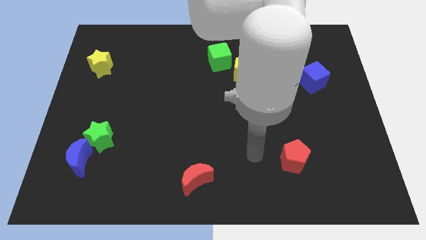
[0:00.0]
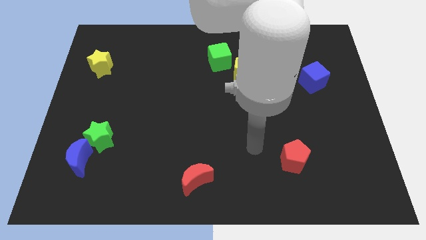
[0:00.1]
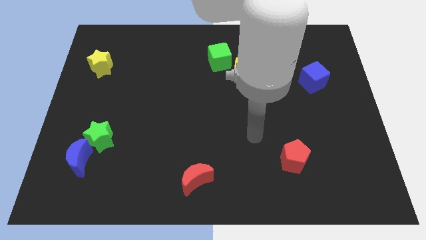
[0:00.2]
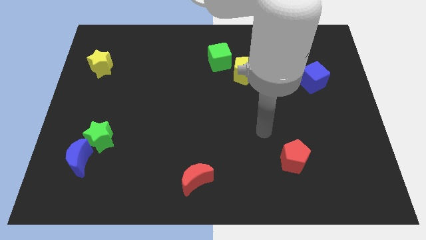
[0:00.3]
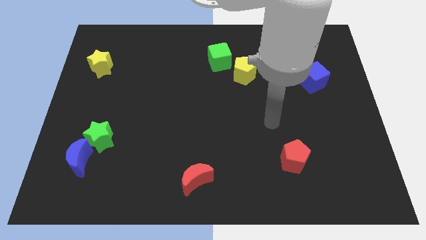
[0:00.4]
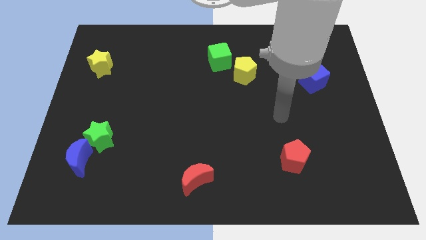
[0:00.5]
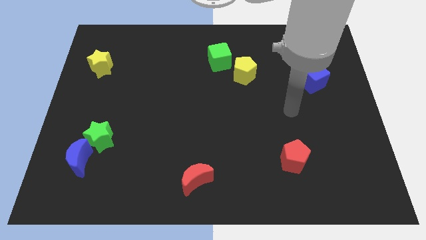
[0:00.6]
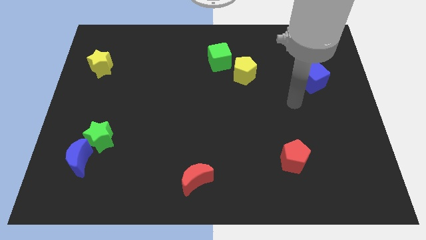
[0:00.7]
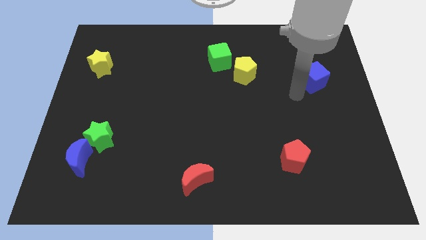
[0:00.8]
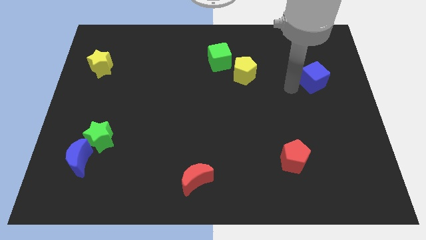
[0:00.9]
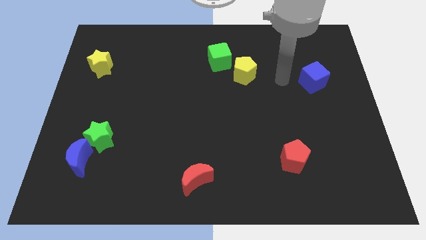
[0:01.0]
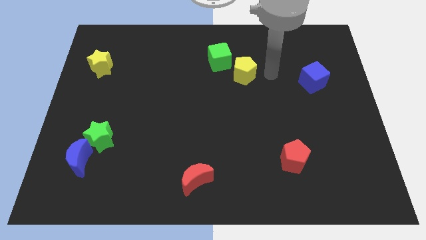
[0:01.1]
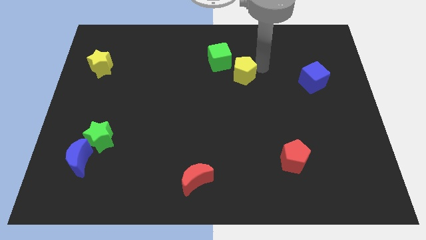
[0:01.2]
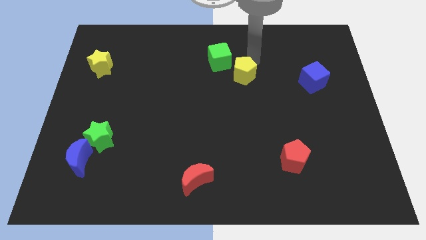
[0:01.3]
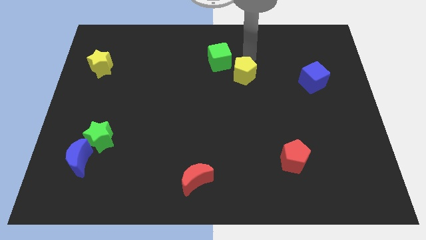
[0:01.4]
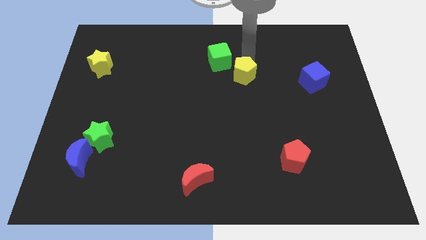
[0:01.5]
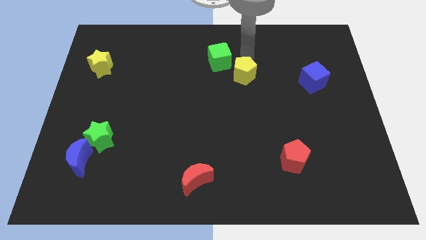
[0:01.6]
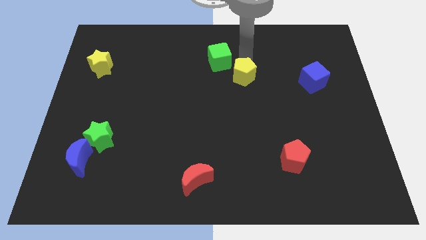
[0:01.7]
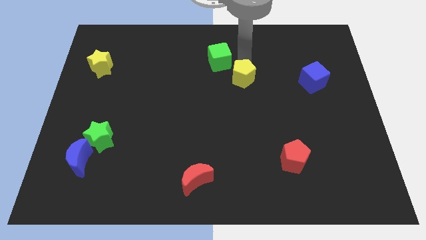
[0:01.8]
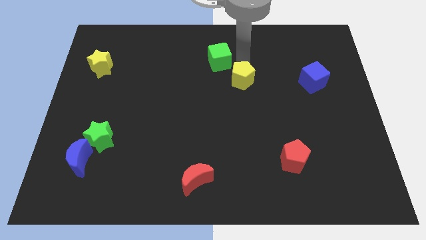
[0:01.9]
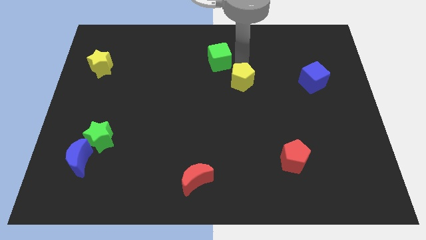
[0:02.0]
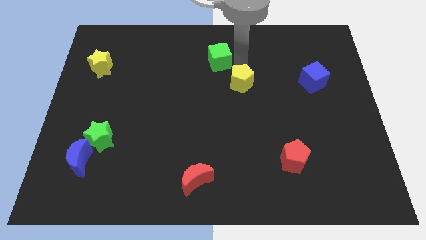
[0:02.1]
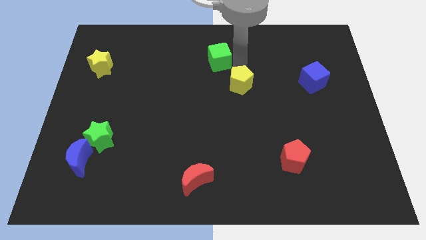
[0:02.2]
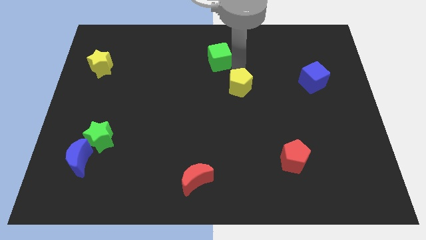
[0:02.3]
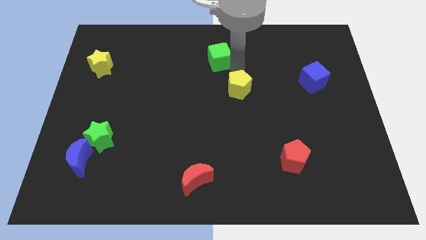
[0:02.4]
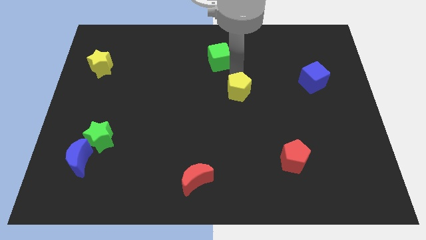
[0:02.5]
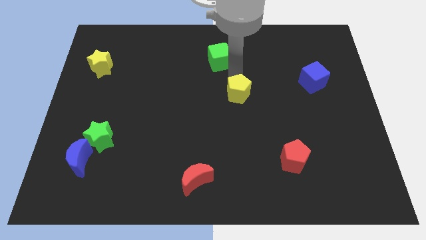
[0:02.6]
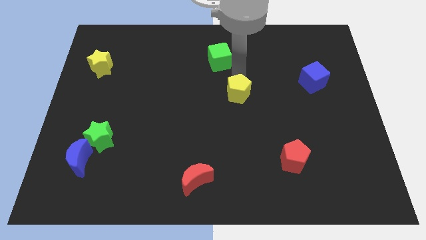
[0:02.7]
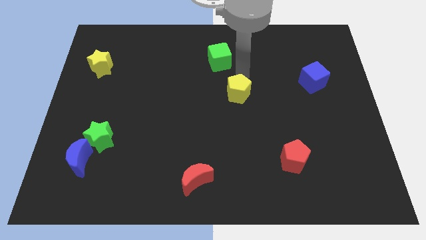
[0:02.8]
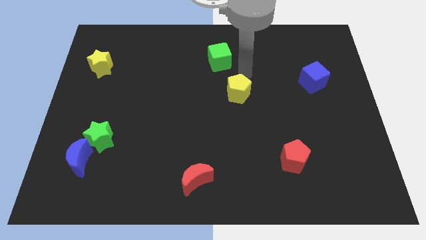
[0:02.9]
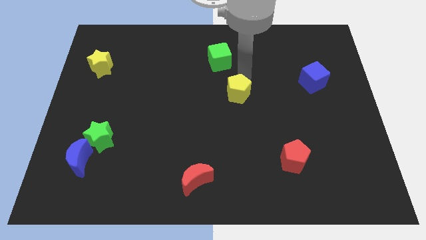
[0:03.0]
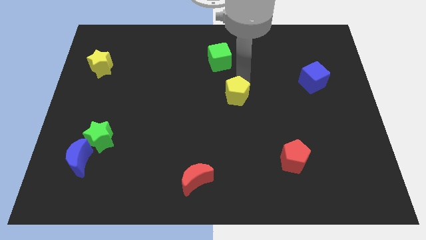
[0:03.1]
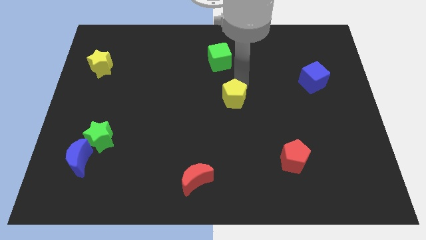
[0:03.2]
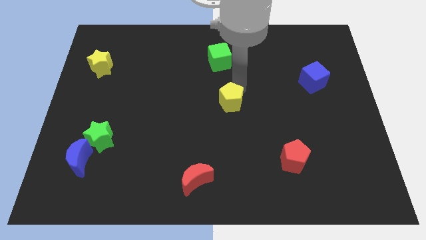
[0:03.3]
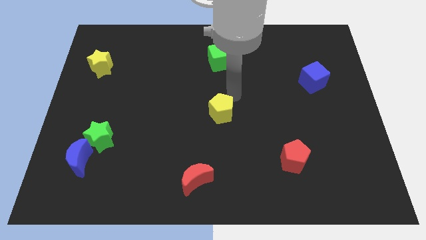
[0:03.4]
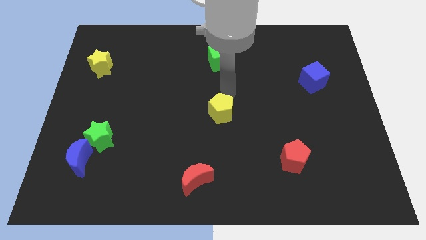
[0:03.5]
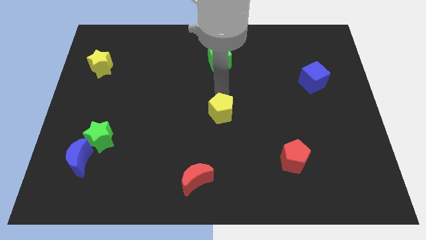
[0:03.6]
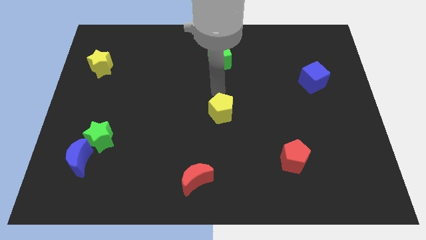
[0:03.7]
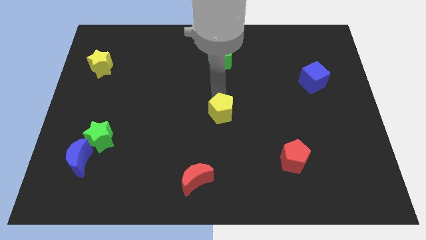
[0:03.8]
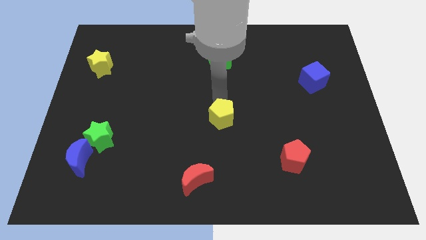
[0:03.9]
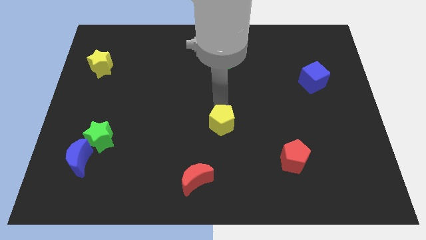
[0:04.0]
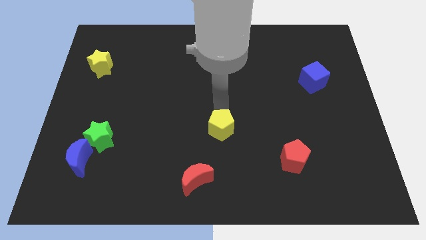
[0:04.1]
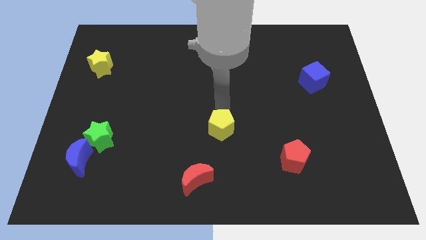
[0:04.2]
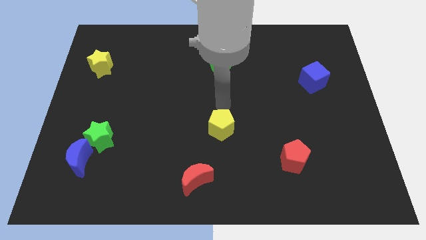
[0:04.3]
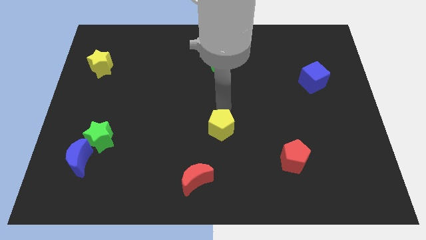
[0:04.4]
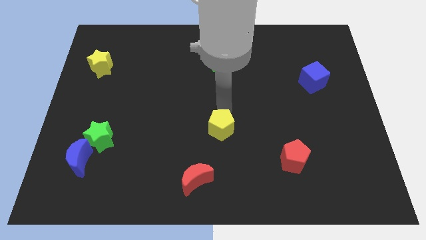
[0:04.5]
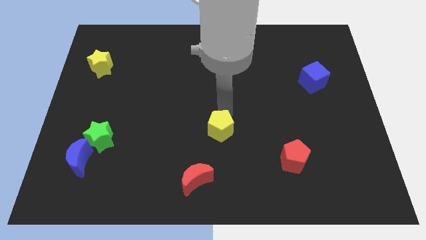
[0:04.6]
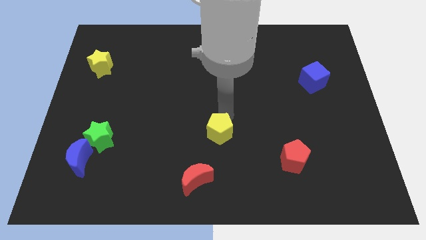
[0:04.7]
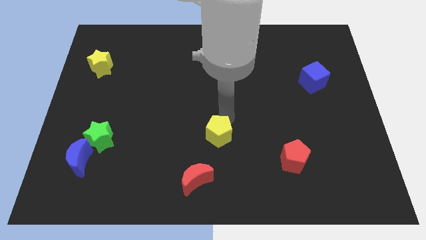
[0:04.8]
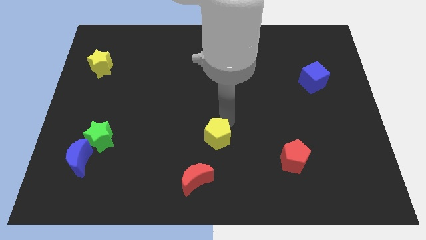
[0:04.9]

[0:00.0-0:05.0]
slide the yellow pentagon diagonally up and to the right of the red moon

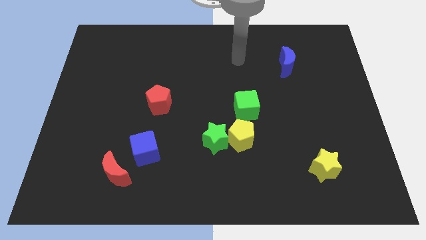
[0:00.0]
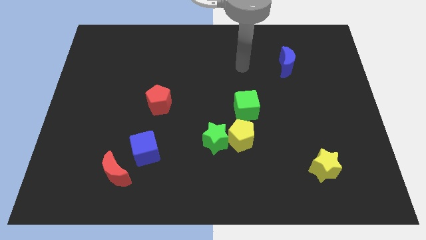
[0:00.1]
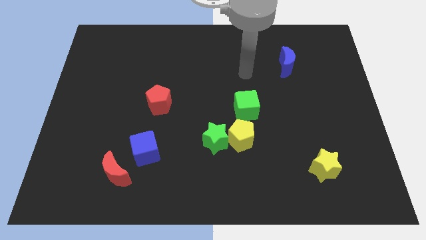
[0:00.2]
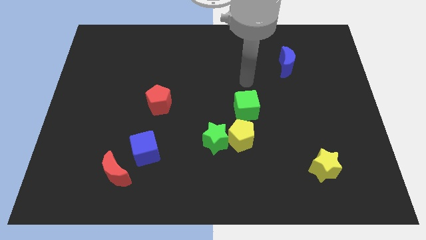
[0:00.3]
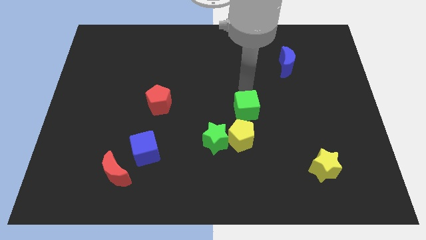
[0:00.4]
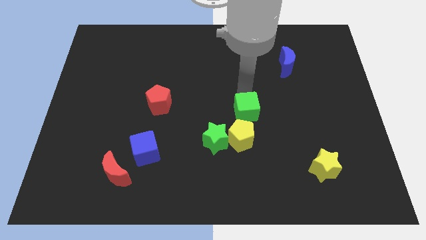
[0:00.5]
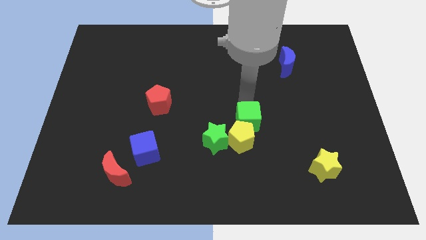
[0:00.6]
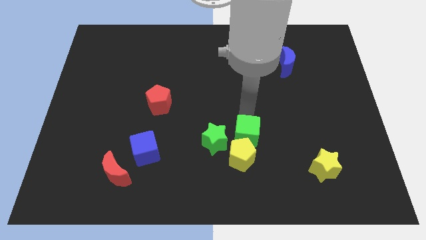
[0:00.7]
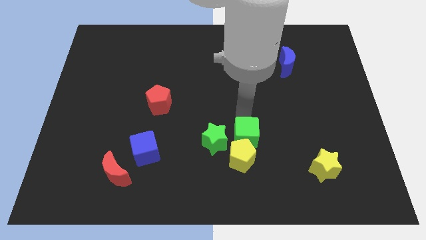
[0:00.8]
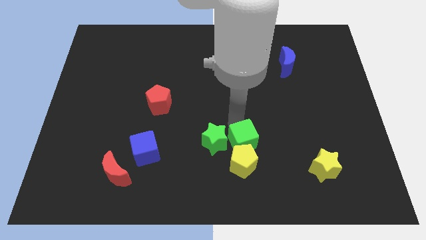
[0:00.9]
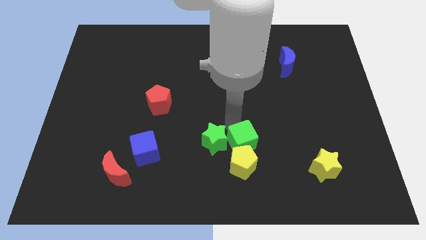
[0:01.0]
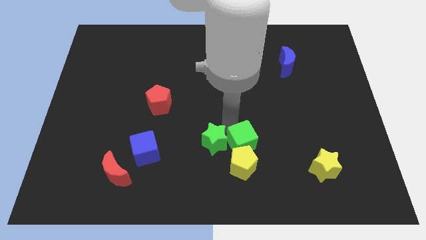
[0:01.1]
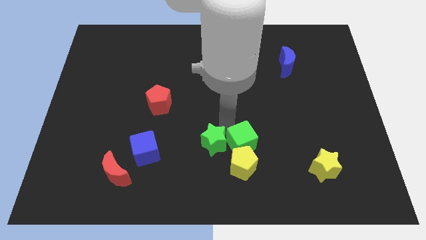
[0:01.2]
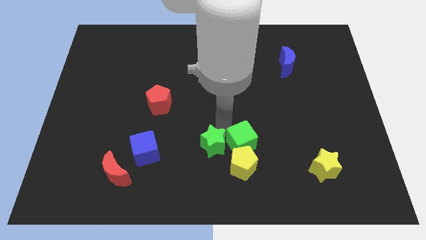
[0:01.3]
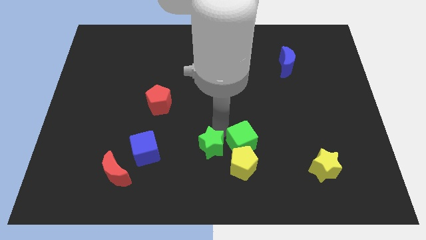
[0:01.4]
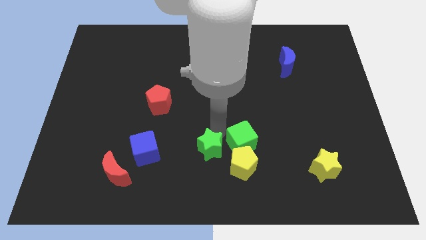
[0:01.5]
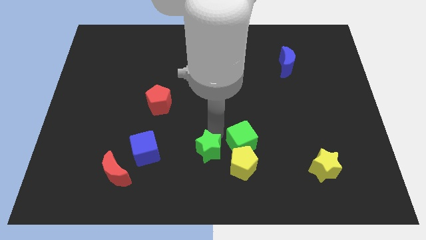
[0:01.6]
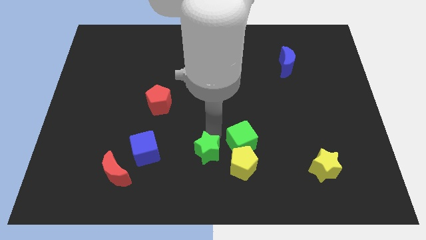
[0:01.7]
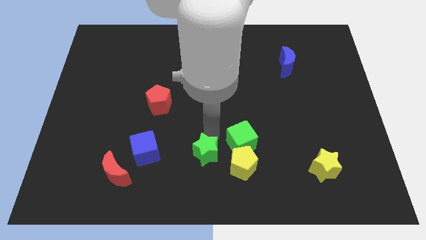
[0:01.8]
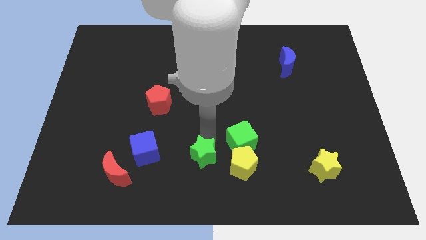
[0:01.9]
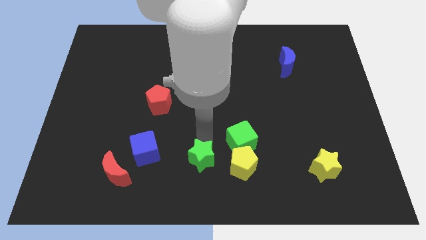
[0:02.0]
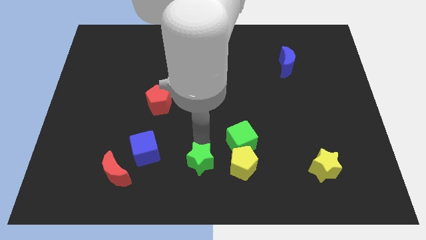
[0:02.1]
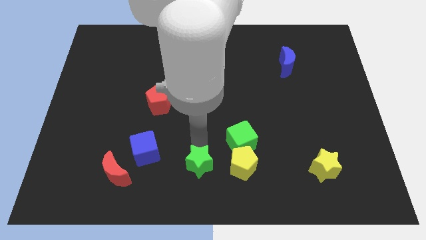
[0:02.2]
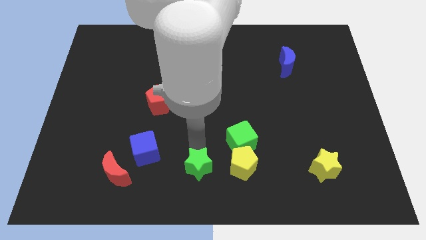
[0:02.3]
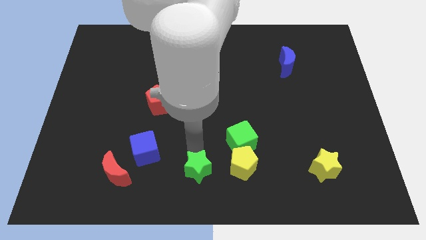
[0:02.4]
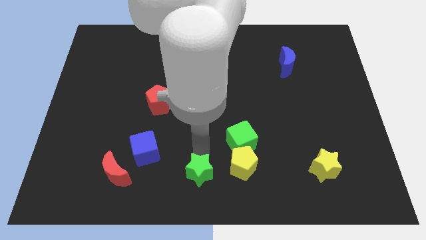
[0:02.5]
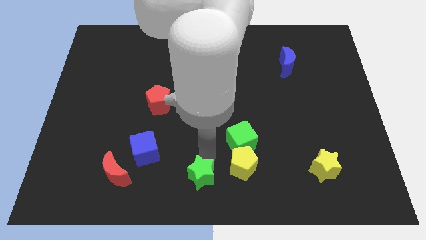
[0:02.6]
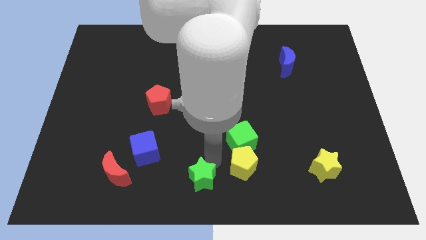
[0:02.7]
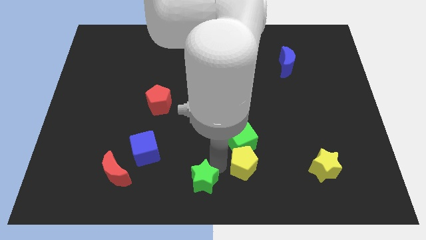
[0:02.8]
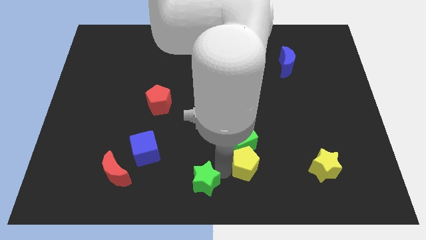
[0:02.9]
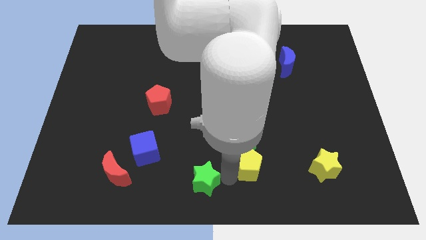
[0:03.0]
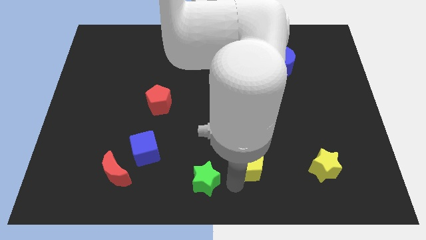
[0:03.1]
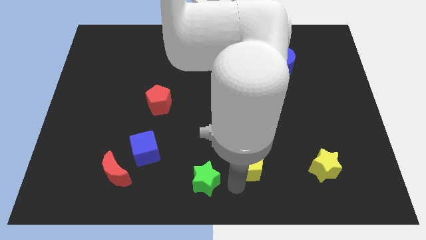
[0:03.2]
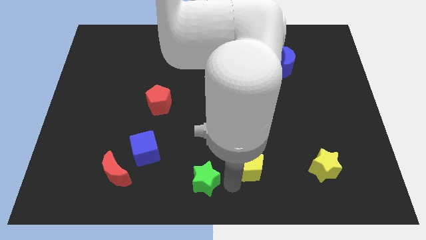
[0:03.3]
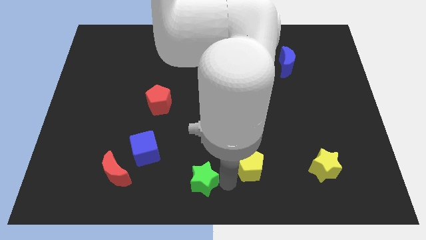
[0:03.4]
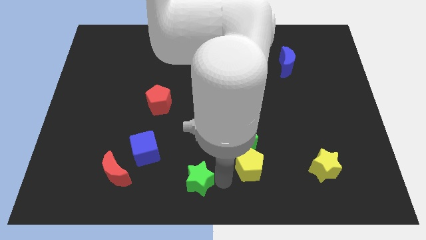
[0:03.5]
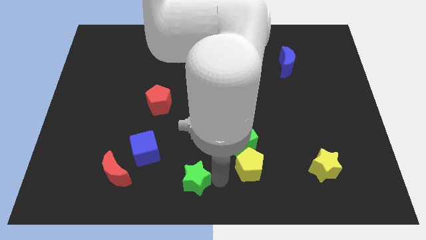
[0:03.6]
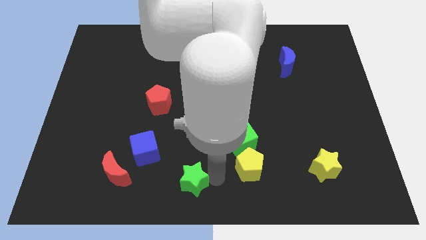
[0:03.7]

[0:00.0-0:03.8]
move the green star to the right side of the red moon
